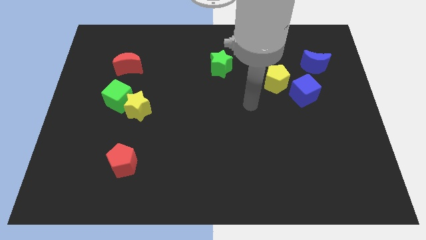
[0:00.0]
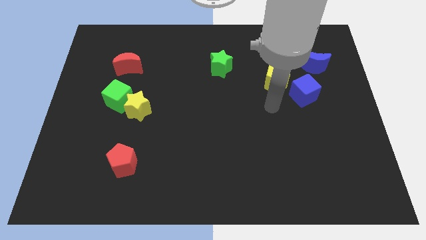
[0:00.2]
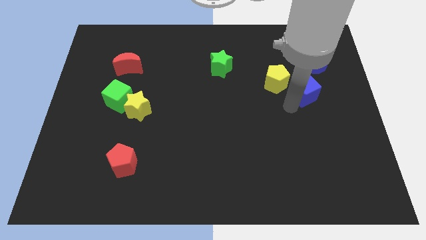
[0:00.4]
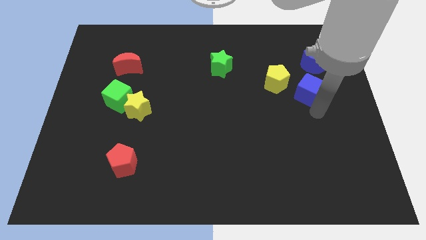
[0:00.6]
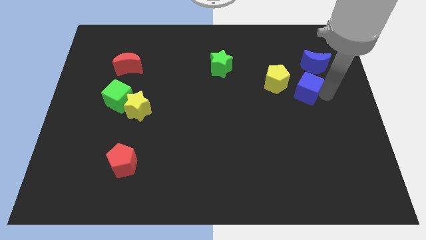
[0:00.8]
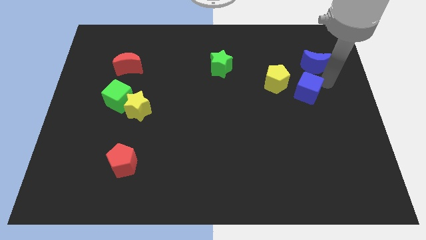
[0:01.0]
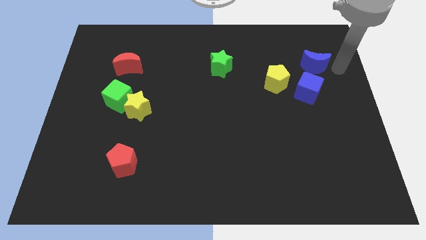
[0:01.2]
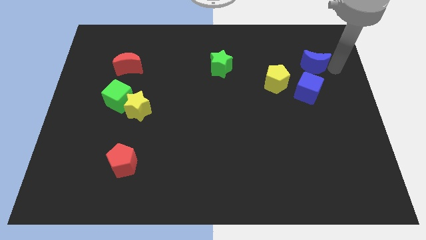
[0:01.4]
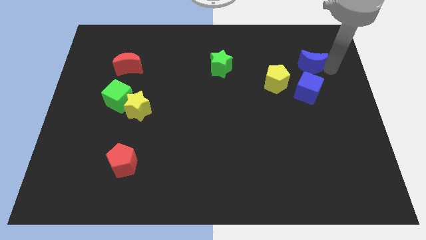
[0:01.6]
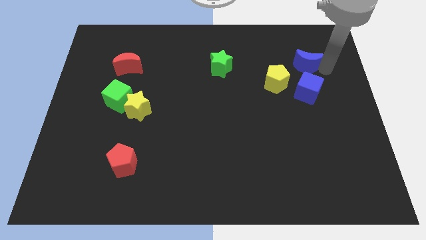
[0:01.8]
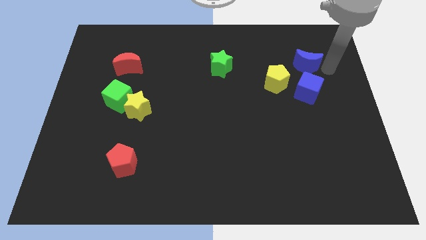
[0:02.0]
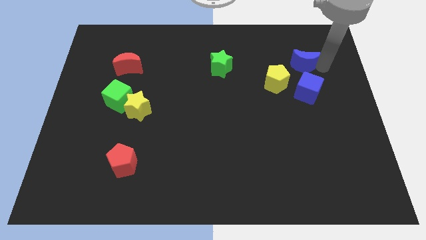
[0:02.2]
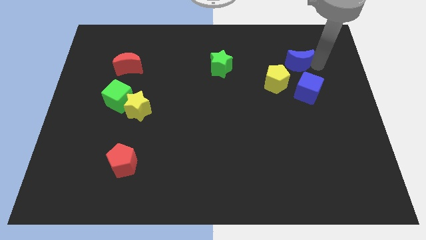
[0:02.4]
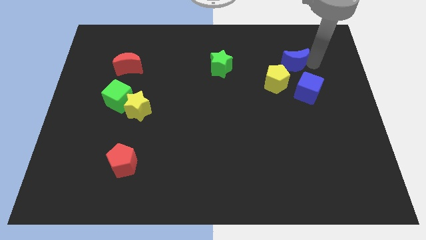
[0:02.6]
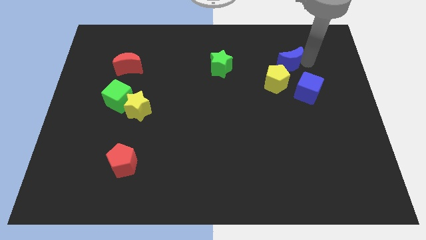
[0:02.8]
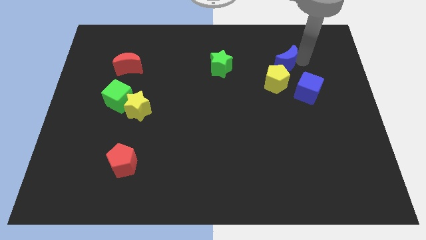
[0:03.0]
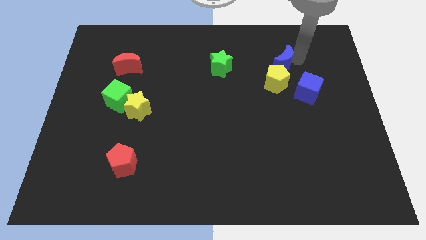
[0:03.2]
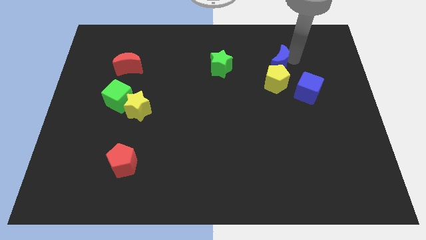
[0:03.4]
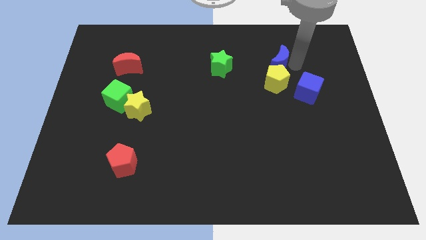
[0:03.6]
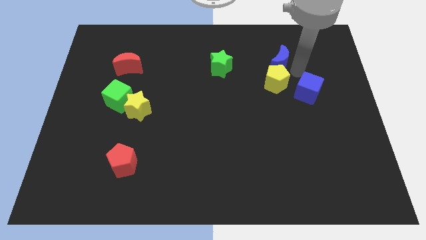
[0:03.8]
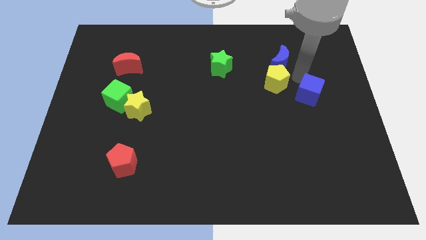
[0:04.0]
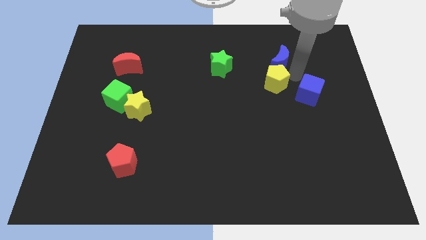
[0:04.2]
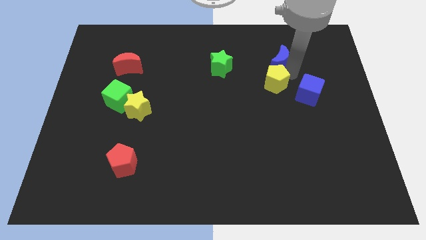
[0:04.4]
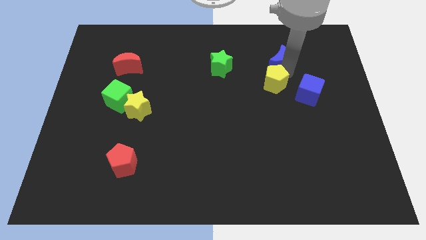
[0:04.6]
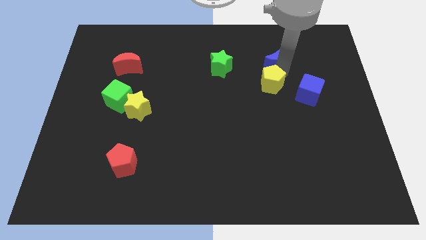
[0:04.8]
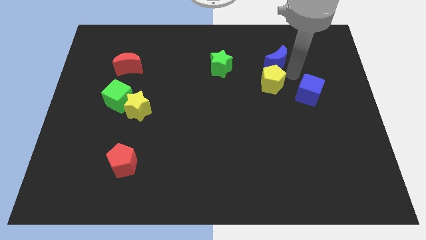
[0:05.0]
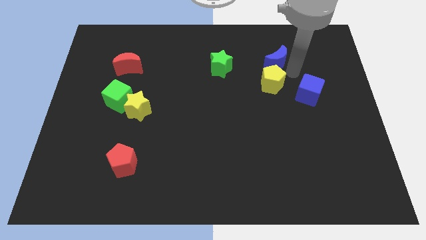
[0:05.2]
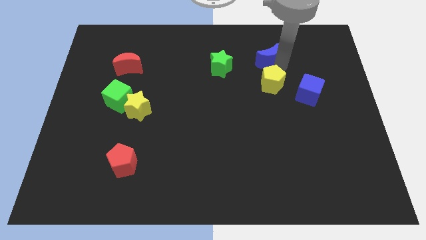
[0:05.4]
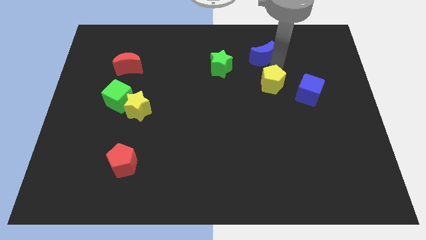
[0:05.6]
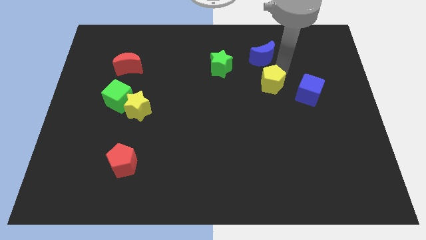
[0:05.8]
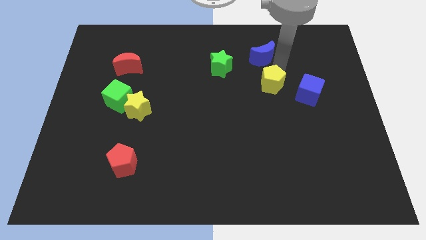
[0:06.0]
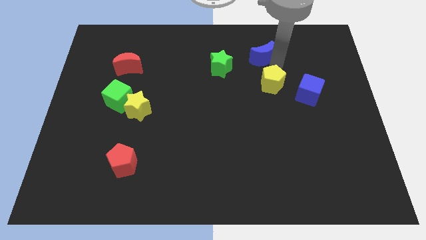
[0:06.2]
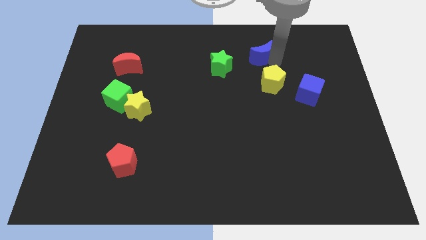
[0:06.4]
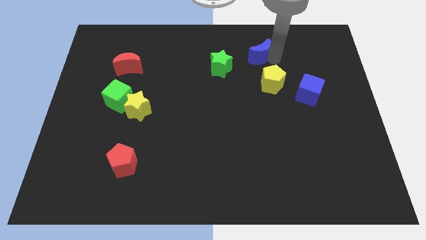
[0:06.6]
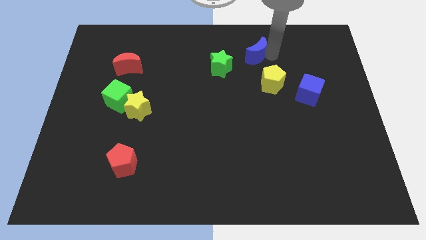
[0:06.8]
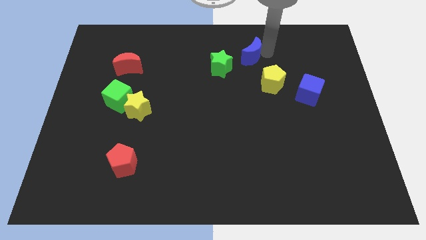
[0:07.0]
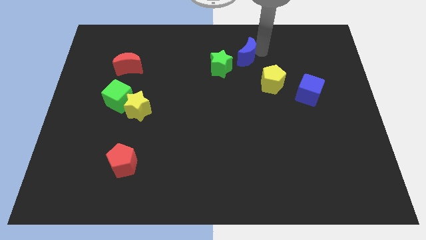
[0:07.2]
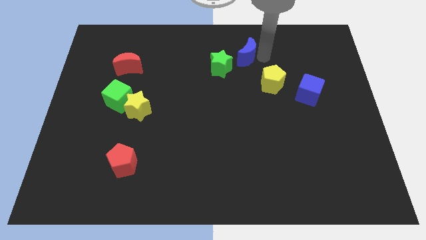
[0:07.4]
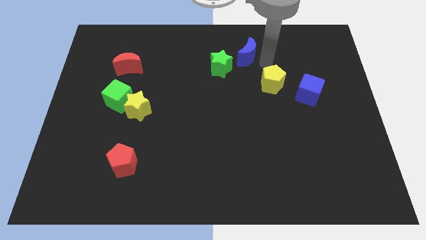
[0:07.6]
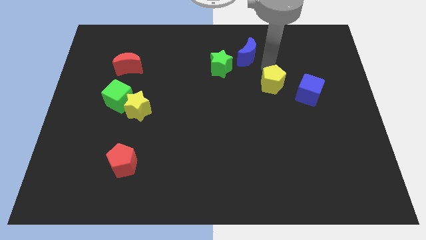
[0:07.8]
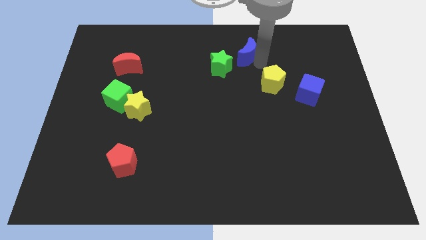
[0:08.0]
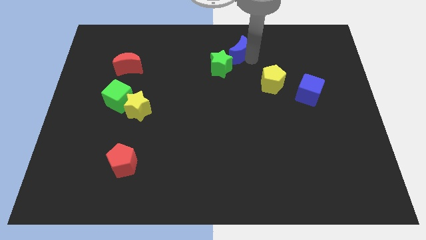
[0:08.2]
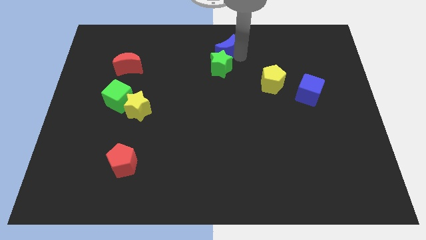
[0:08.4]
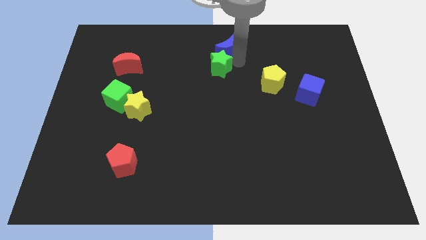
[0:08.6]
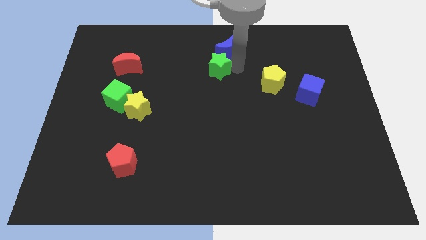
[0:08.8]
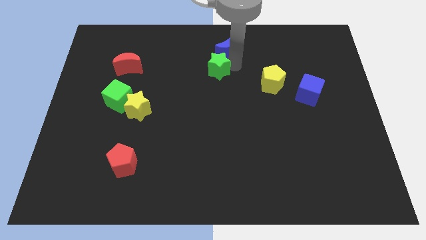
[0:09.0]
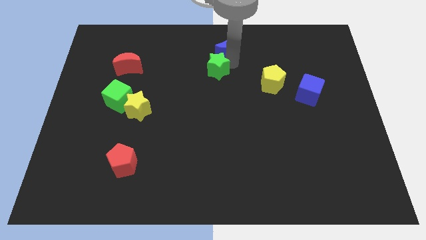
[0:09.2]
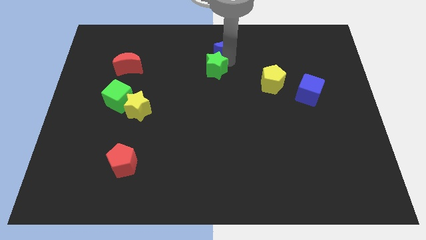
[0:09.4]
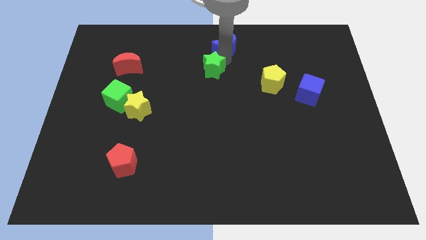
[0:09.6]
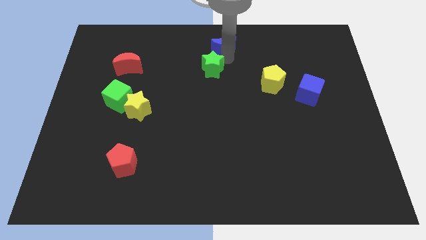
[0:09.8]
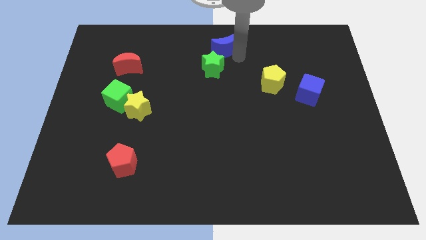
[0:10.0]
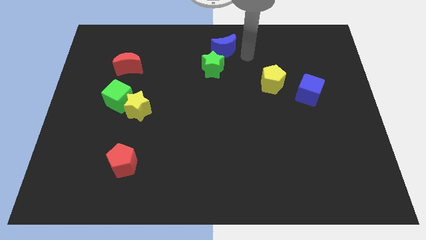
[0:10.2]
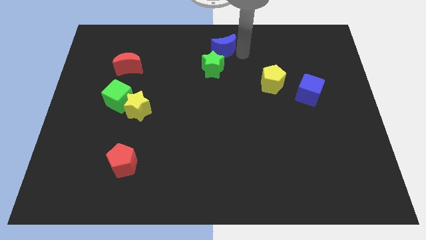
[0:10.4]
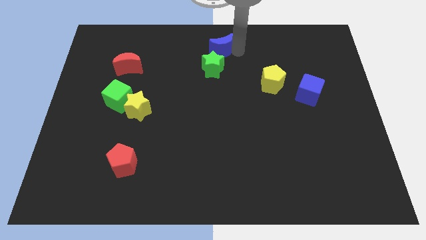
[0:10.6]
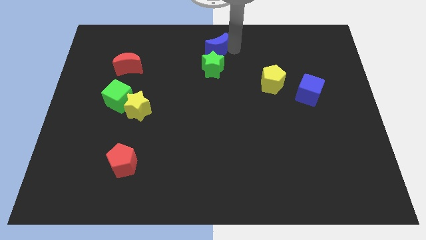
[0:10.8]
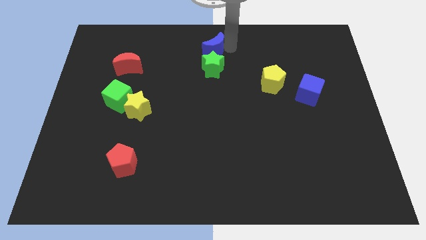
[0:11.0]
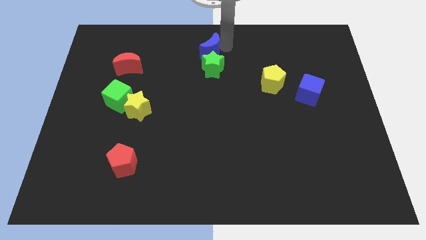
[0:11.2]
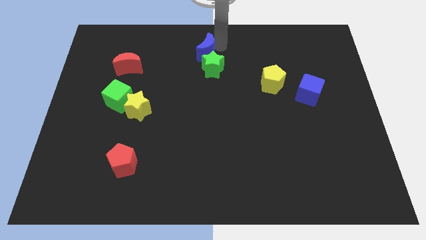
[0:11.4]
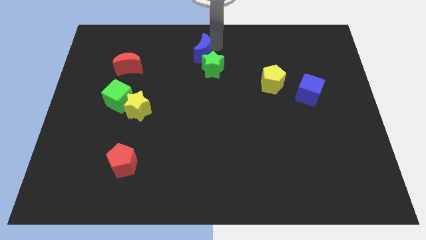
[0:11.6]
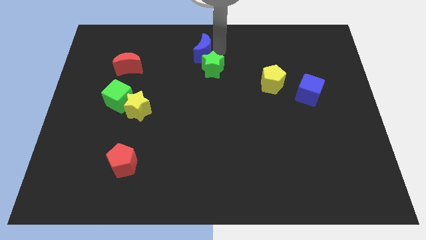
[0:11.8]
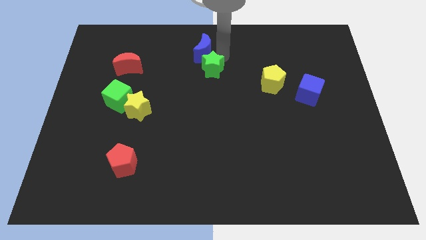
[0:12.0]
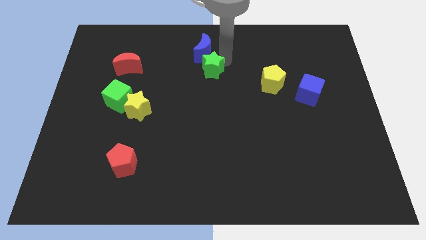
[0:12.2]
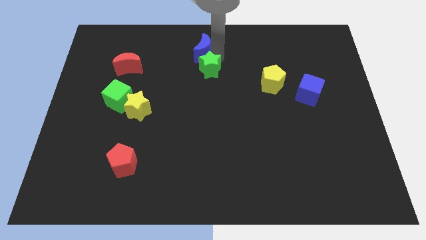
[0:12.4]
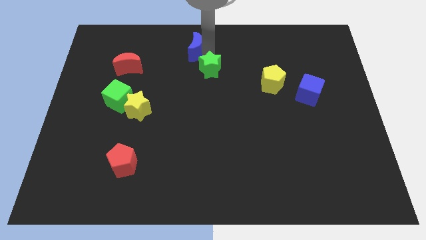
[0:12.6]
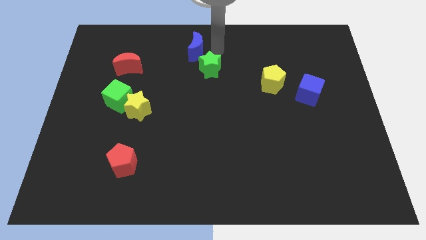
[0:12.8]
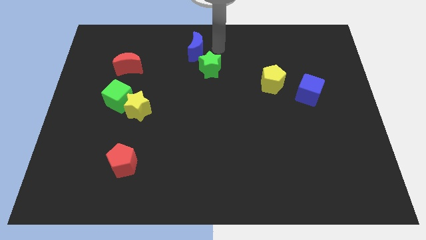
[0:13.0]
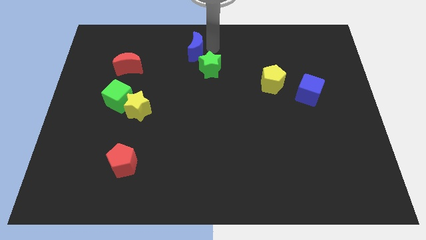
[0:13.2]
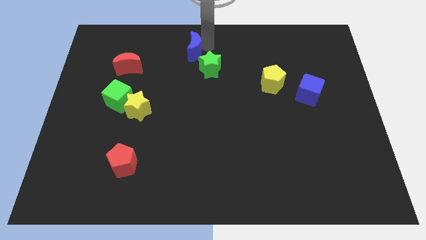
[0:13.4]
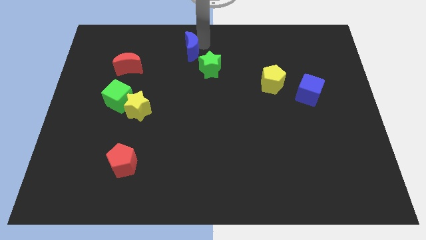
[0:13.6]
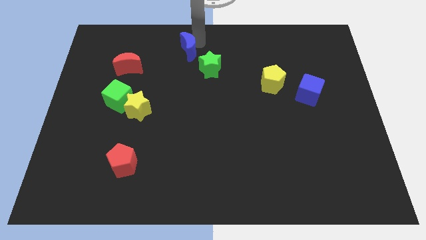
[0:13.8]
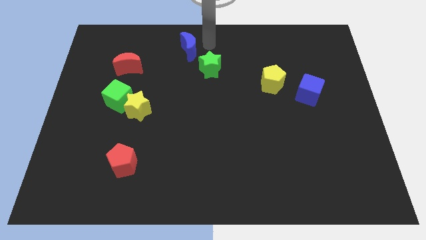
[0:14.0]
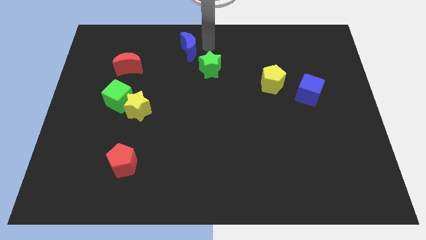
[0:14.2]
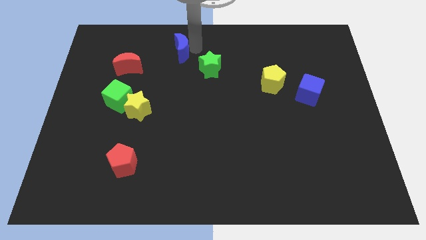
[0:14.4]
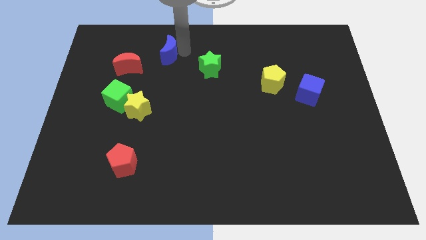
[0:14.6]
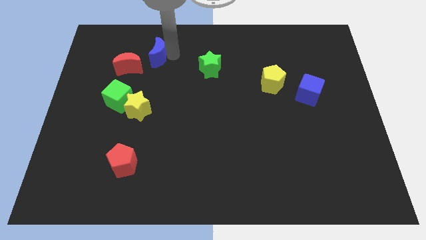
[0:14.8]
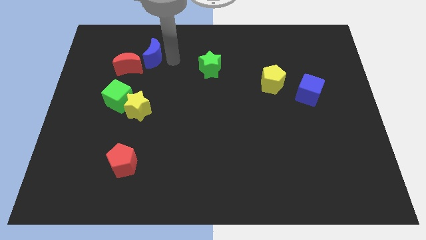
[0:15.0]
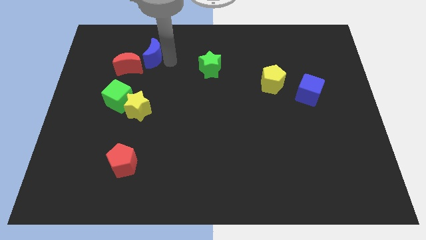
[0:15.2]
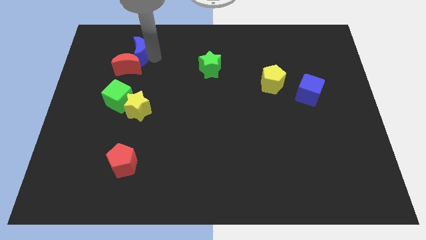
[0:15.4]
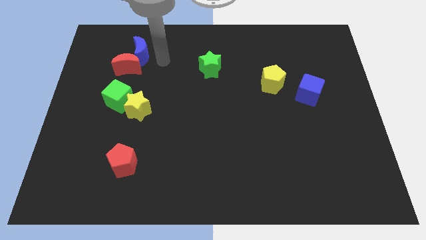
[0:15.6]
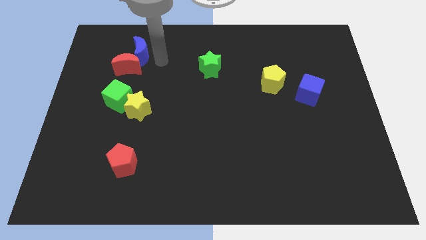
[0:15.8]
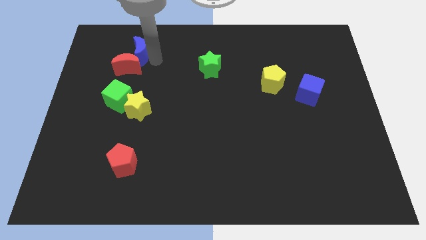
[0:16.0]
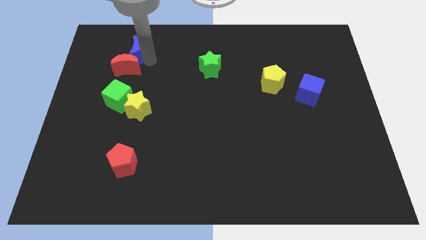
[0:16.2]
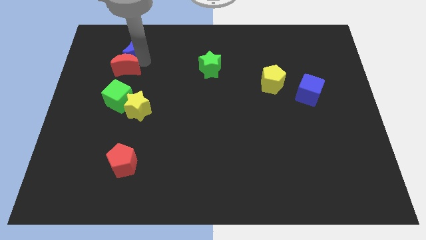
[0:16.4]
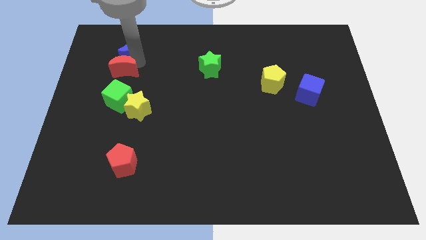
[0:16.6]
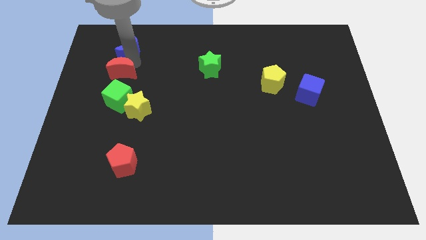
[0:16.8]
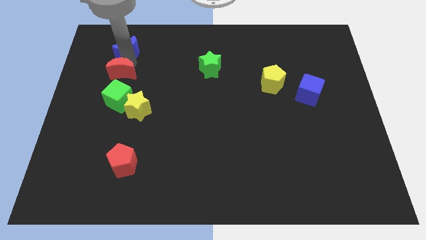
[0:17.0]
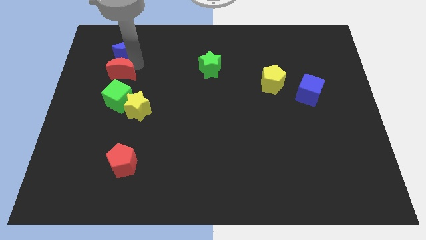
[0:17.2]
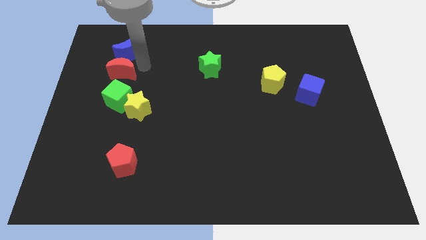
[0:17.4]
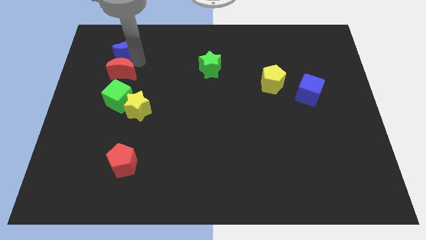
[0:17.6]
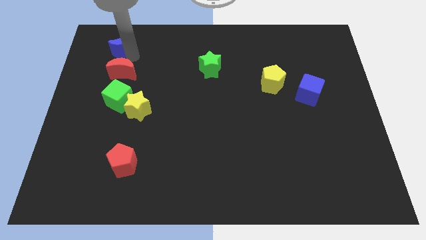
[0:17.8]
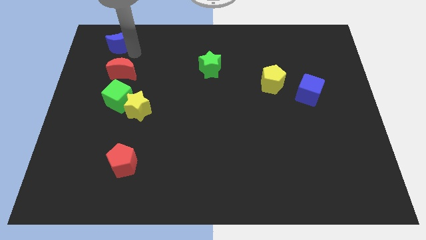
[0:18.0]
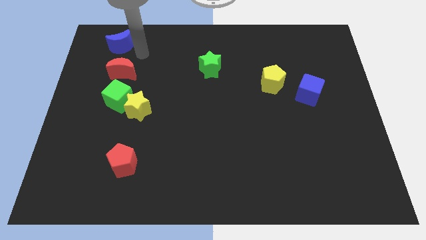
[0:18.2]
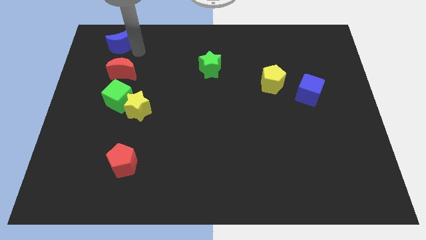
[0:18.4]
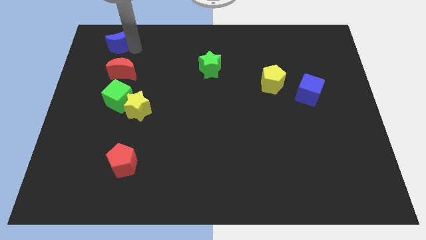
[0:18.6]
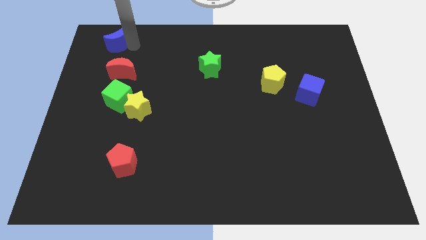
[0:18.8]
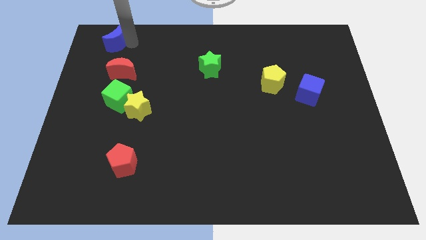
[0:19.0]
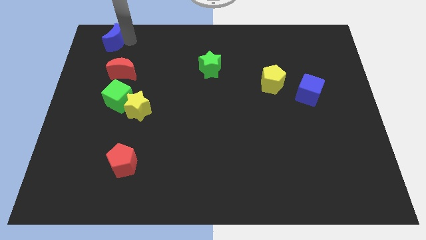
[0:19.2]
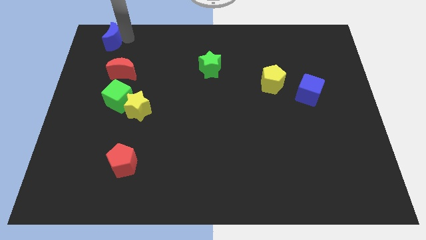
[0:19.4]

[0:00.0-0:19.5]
slide the blue moon to the top left corner
